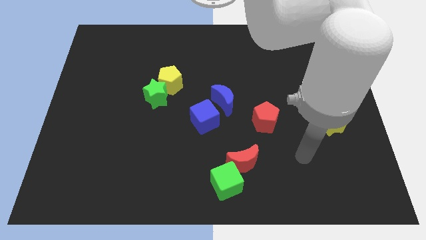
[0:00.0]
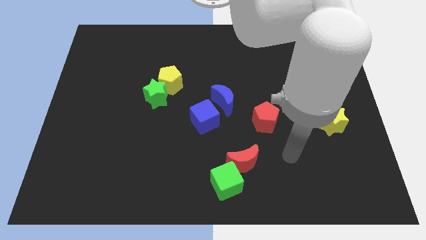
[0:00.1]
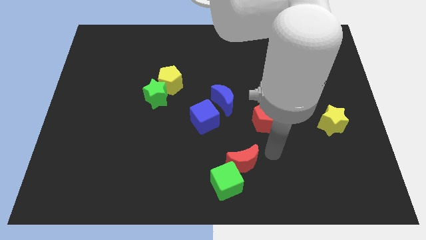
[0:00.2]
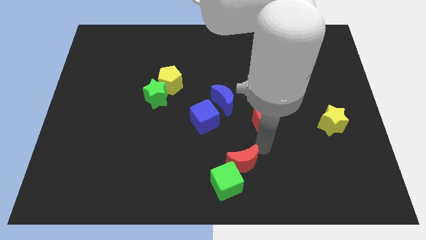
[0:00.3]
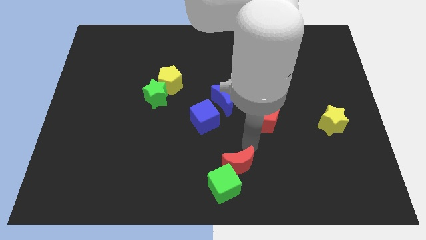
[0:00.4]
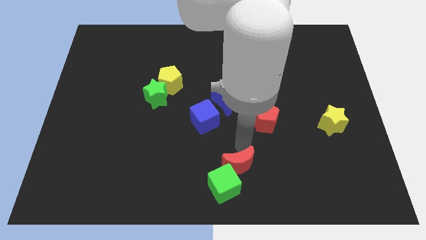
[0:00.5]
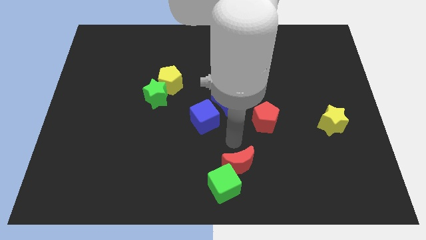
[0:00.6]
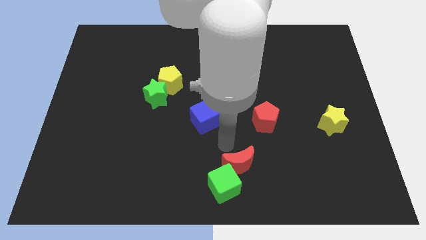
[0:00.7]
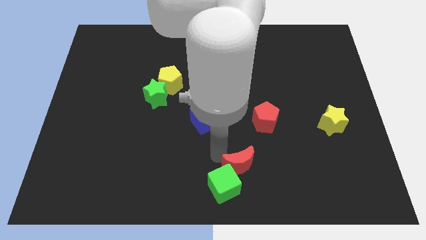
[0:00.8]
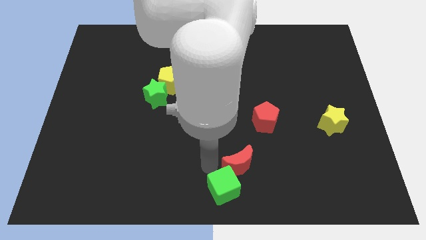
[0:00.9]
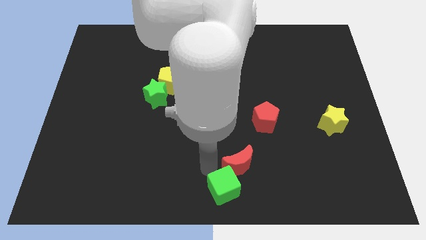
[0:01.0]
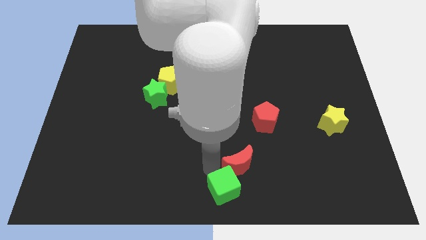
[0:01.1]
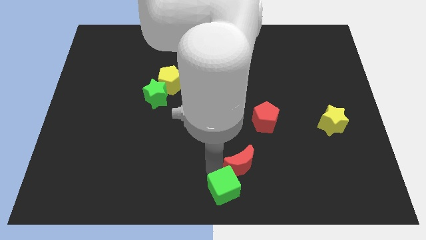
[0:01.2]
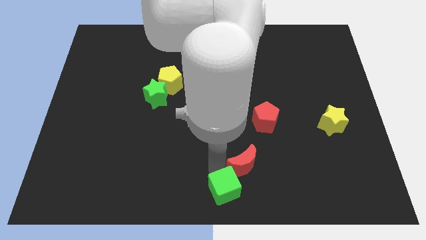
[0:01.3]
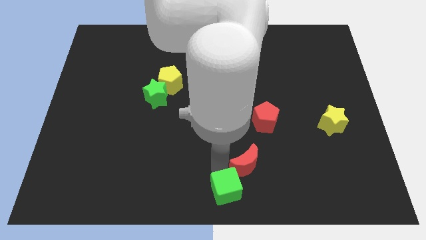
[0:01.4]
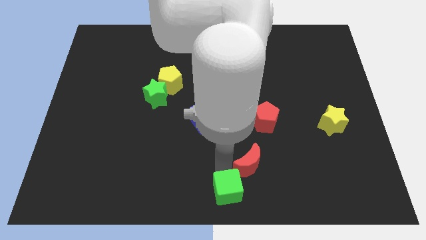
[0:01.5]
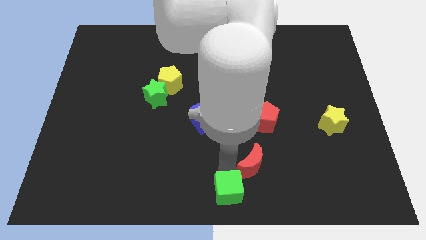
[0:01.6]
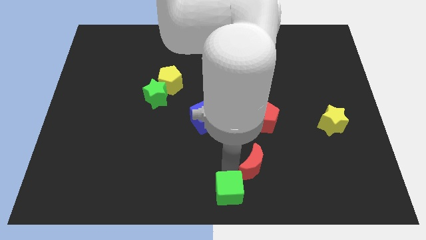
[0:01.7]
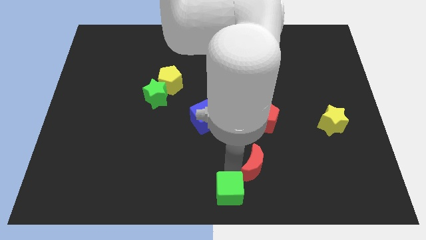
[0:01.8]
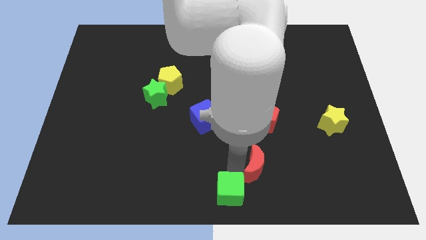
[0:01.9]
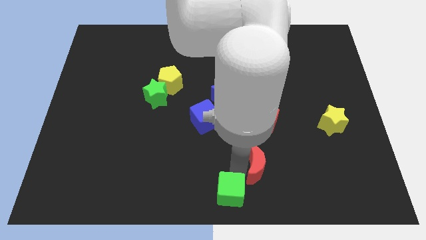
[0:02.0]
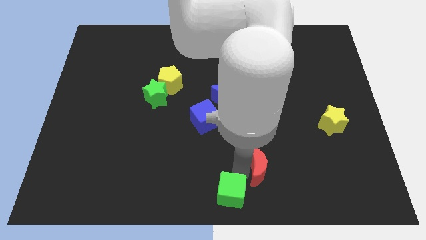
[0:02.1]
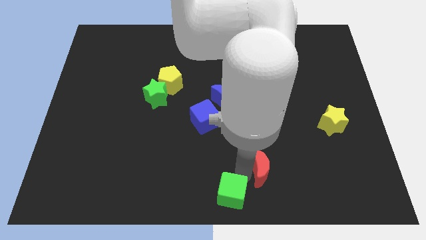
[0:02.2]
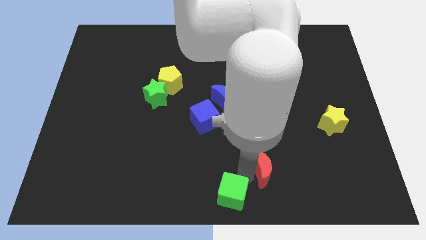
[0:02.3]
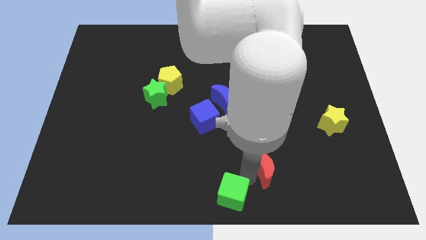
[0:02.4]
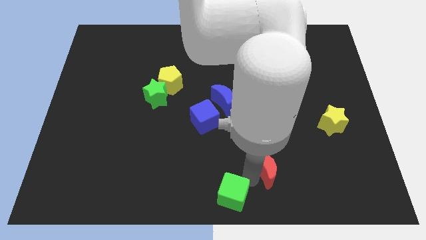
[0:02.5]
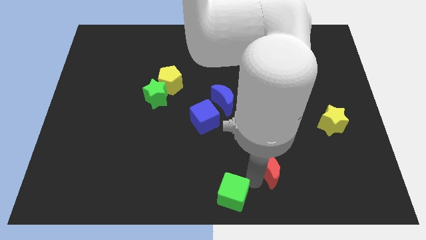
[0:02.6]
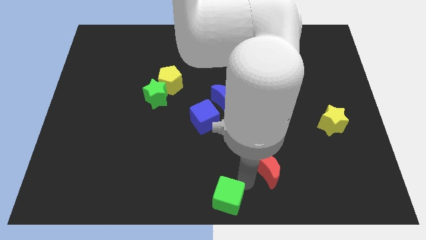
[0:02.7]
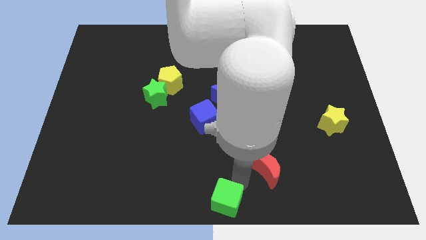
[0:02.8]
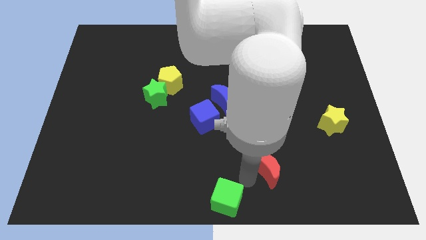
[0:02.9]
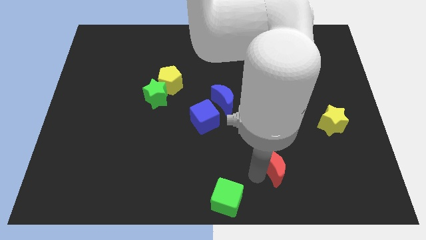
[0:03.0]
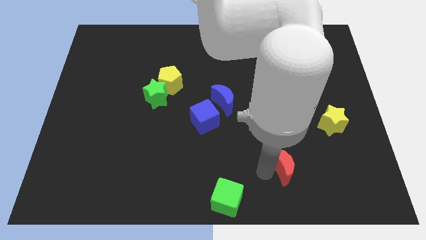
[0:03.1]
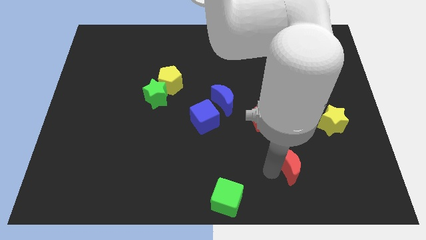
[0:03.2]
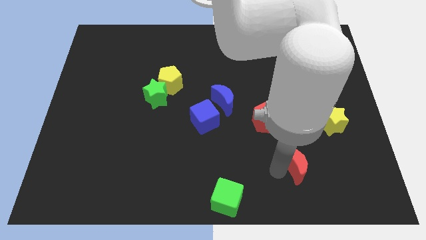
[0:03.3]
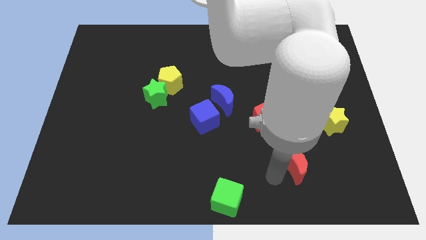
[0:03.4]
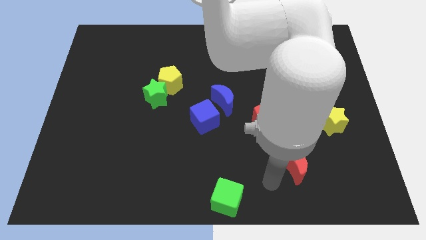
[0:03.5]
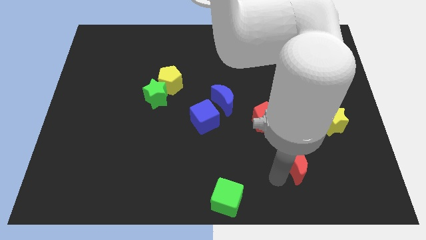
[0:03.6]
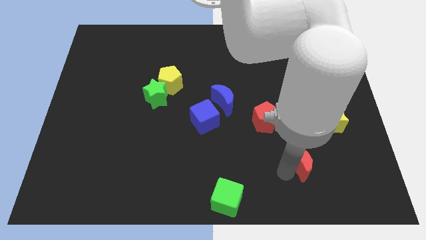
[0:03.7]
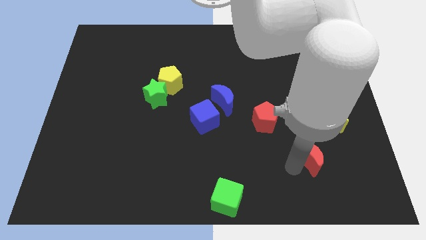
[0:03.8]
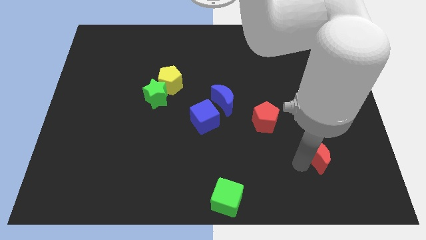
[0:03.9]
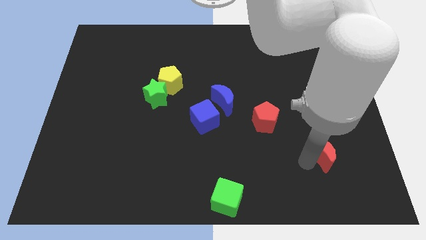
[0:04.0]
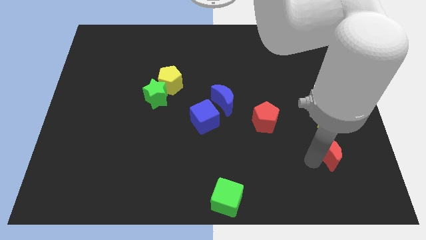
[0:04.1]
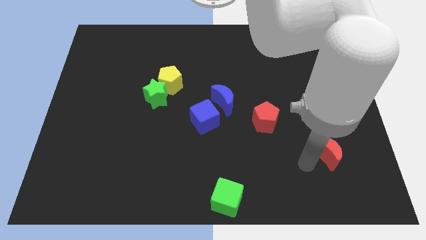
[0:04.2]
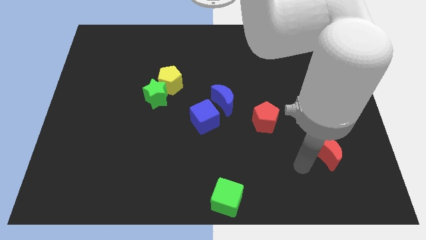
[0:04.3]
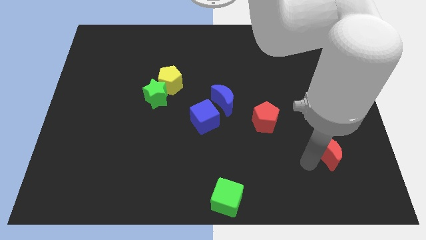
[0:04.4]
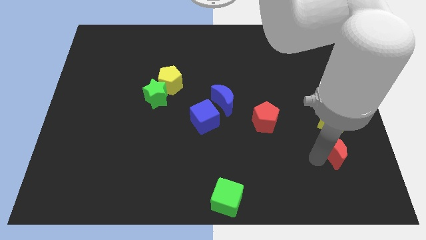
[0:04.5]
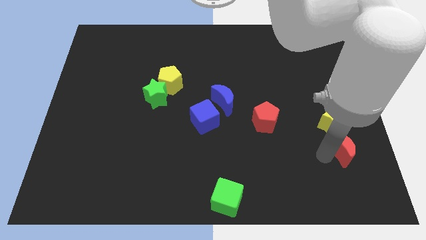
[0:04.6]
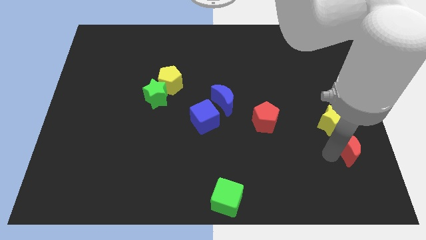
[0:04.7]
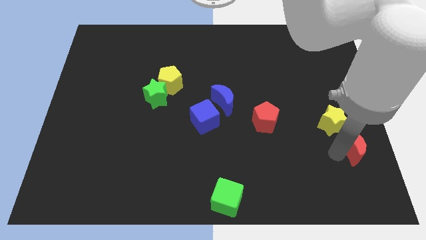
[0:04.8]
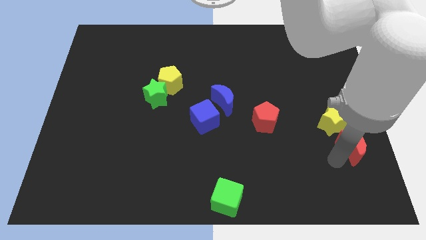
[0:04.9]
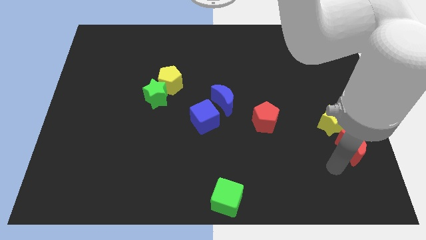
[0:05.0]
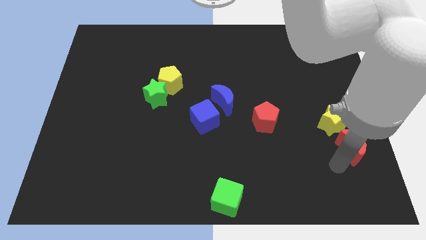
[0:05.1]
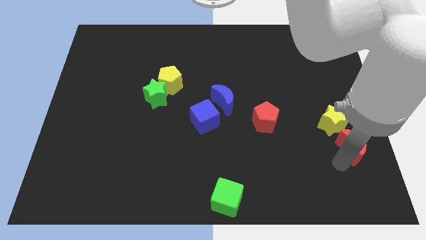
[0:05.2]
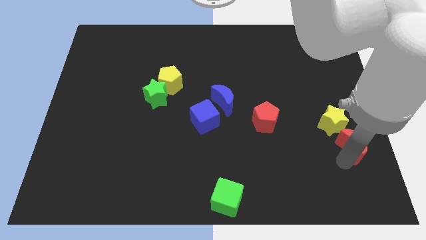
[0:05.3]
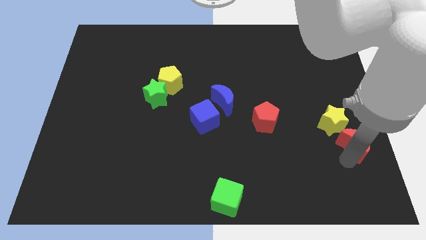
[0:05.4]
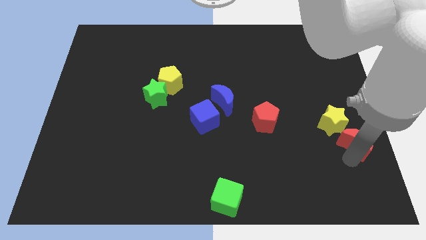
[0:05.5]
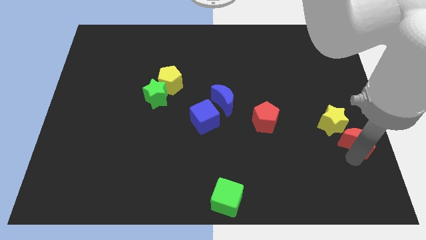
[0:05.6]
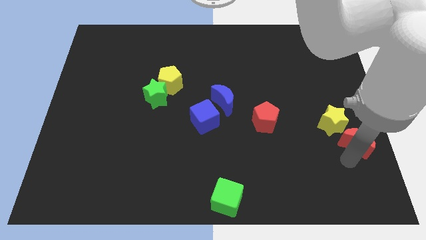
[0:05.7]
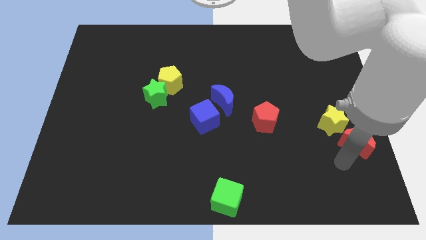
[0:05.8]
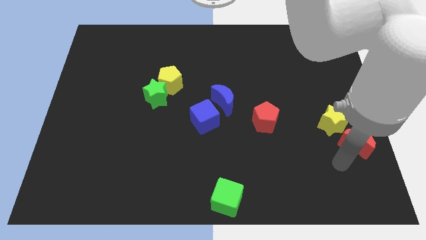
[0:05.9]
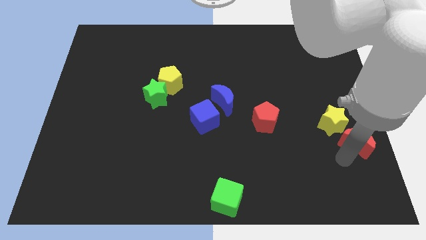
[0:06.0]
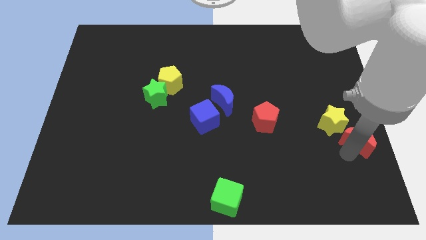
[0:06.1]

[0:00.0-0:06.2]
move the red moon to the right side

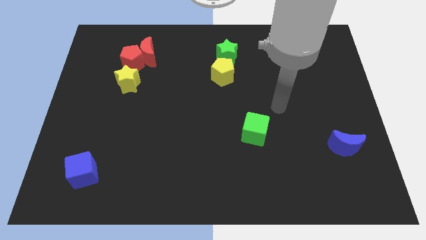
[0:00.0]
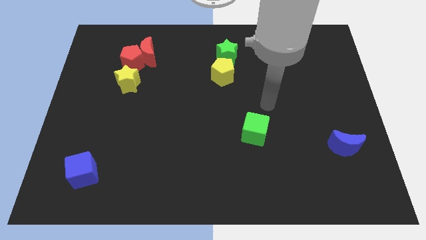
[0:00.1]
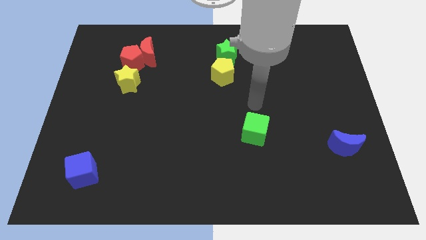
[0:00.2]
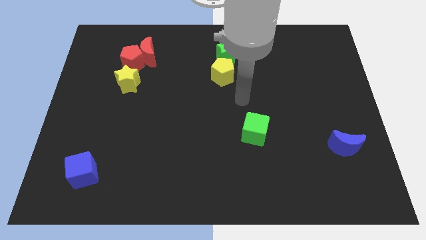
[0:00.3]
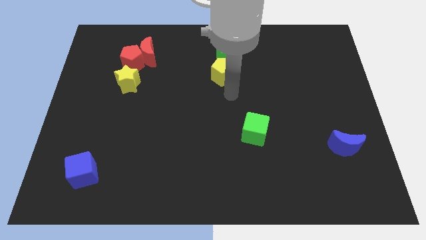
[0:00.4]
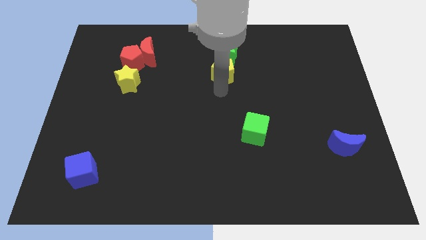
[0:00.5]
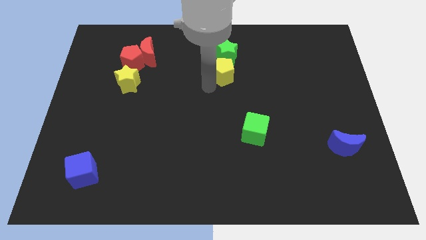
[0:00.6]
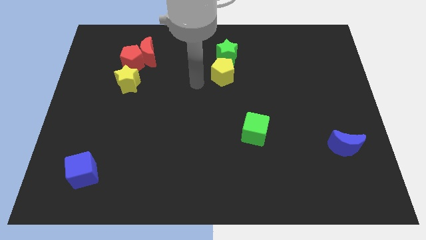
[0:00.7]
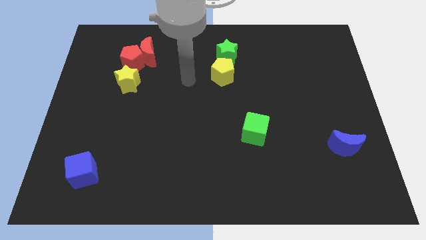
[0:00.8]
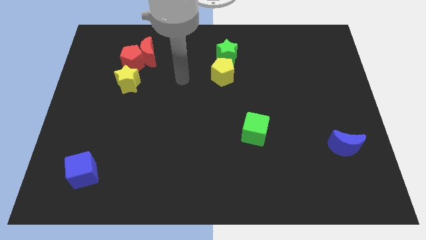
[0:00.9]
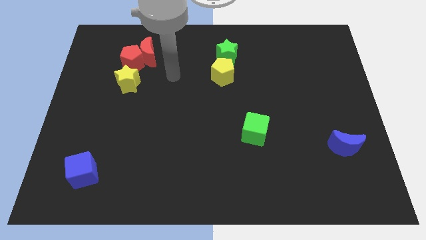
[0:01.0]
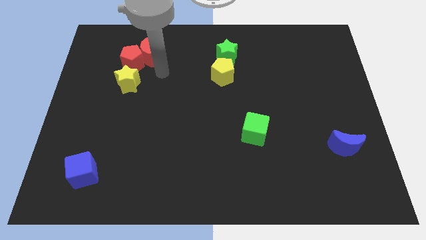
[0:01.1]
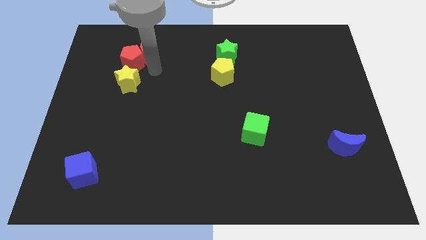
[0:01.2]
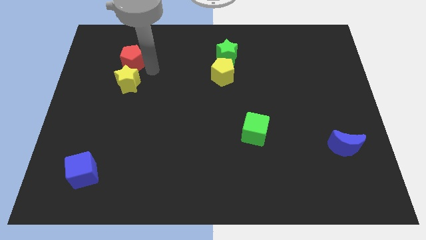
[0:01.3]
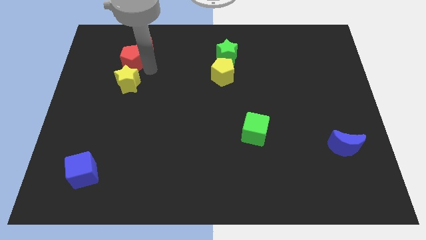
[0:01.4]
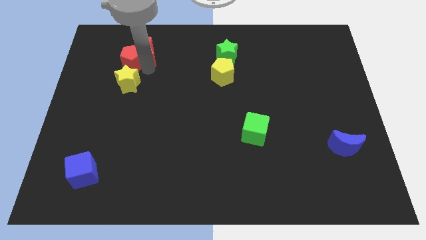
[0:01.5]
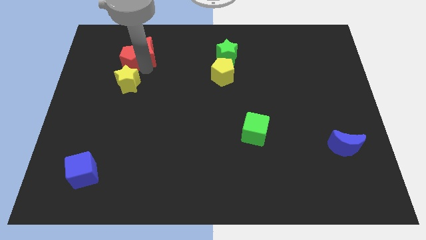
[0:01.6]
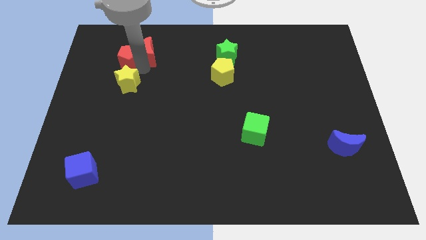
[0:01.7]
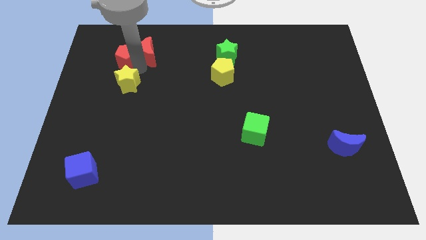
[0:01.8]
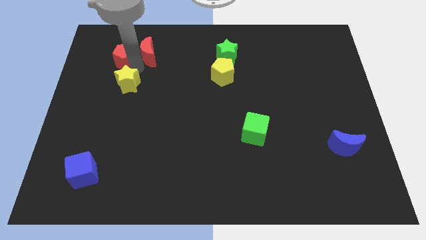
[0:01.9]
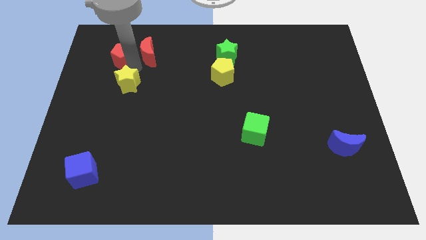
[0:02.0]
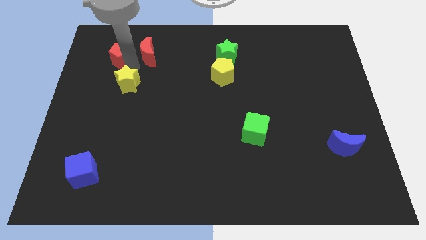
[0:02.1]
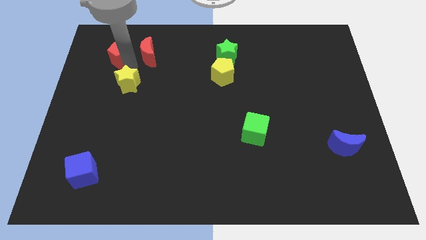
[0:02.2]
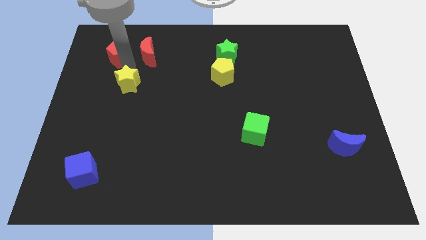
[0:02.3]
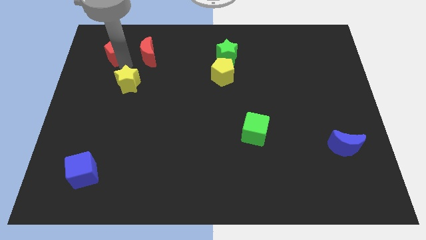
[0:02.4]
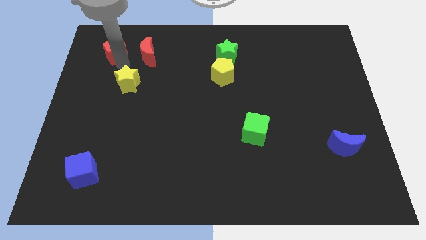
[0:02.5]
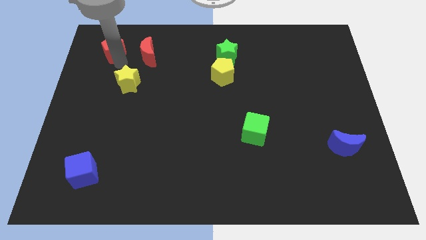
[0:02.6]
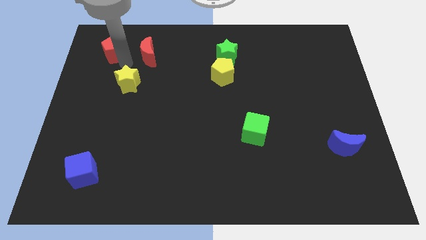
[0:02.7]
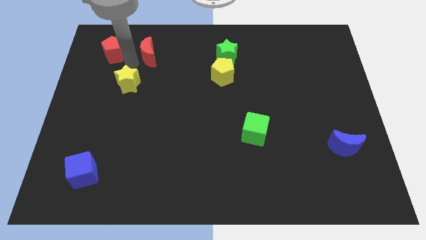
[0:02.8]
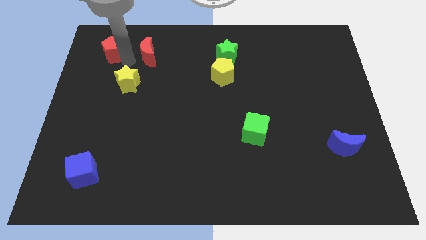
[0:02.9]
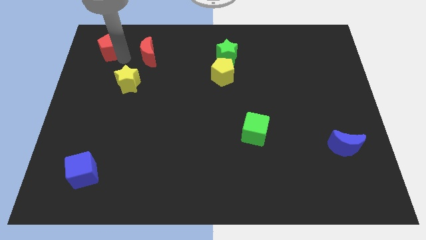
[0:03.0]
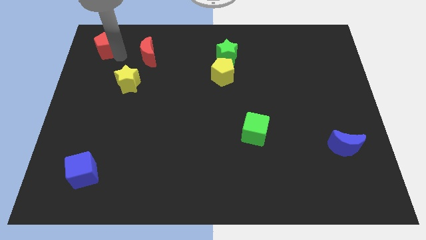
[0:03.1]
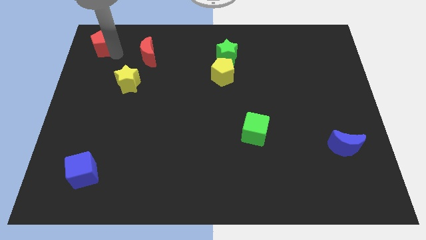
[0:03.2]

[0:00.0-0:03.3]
push the red pentagon to the top left of the board
